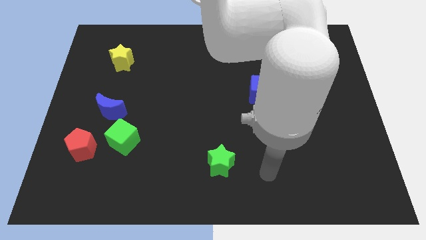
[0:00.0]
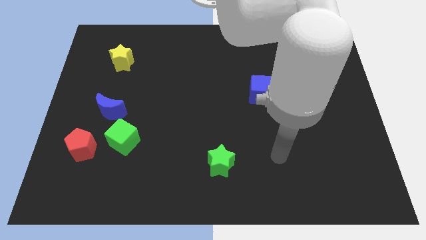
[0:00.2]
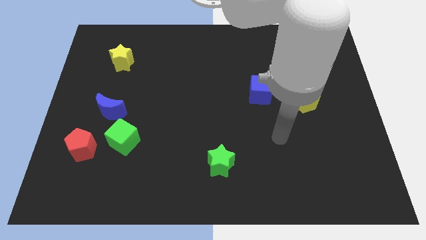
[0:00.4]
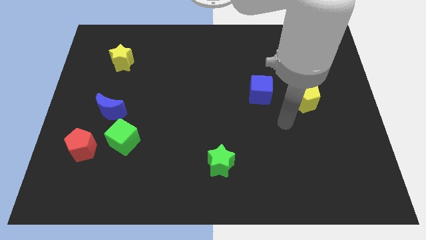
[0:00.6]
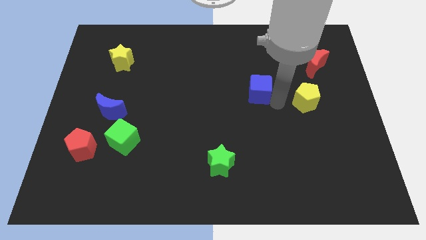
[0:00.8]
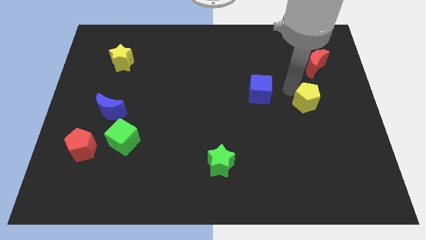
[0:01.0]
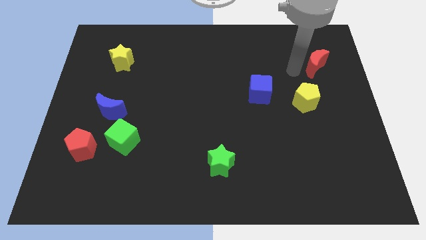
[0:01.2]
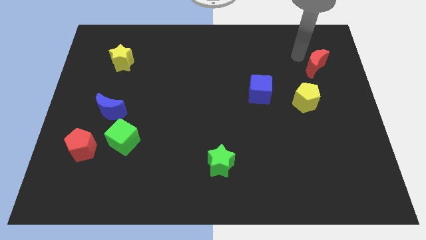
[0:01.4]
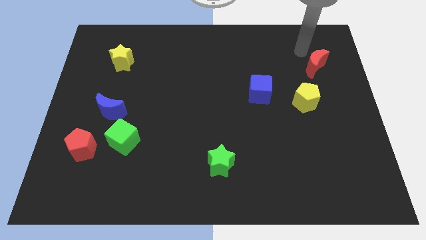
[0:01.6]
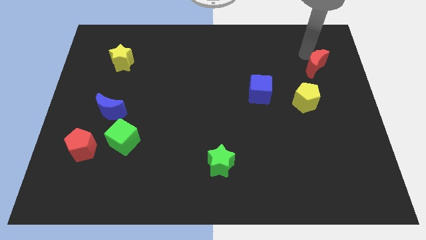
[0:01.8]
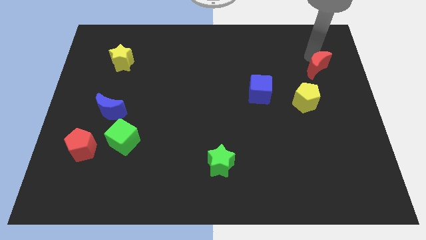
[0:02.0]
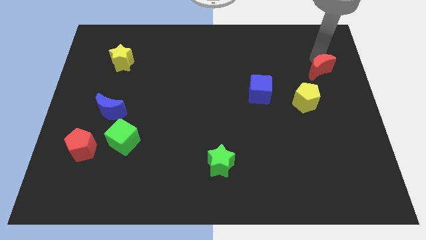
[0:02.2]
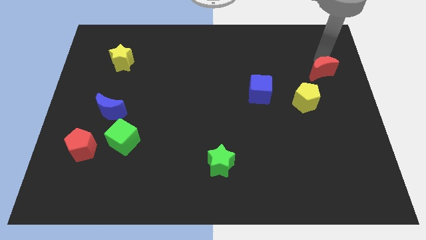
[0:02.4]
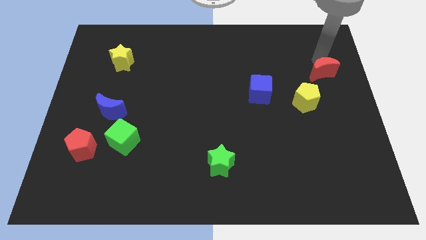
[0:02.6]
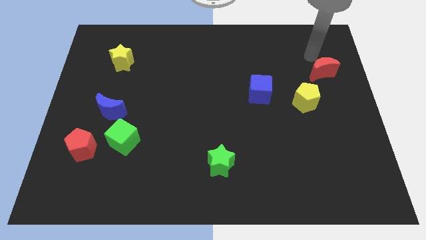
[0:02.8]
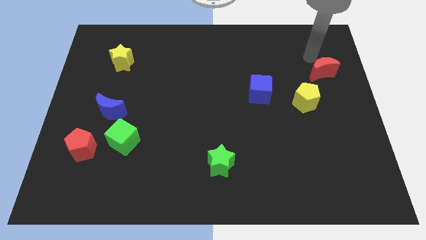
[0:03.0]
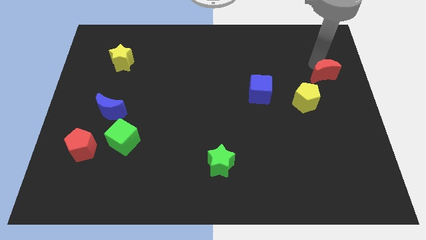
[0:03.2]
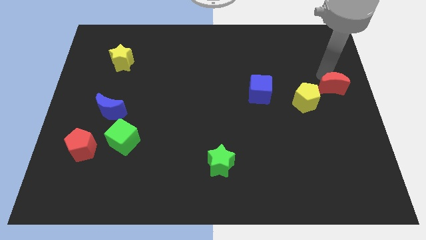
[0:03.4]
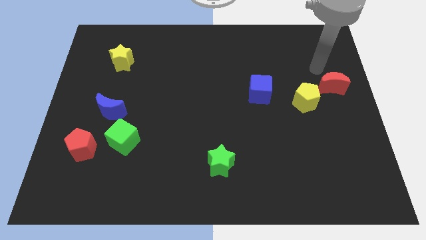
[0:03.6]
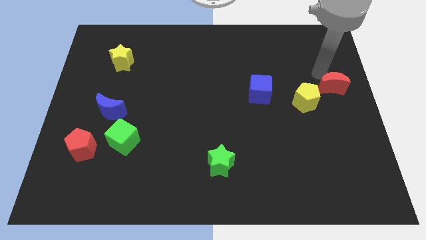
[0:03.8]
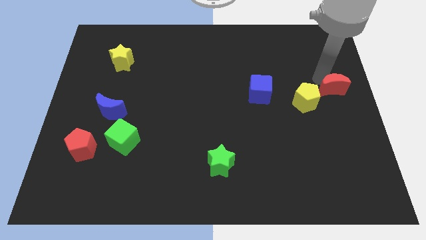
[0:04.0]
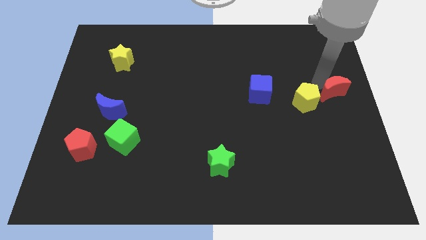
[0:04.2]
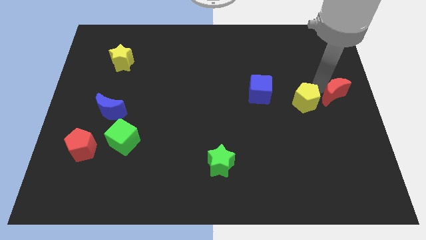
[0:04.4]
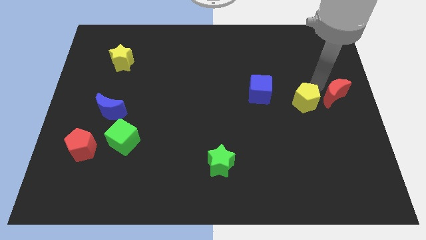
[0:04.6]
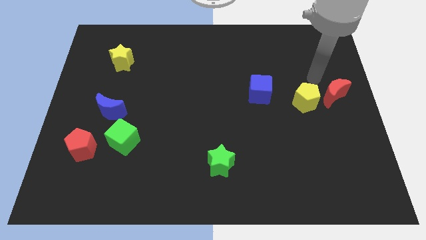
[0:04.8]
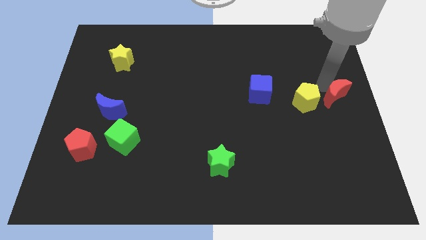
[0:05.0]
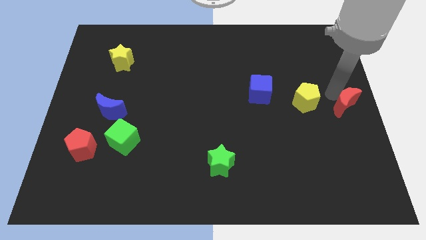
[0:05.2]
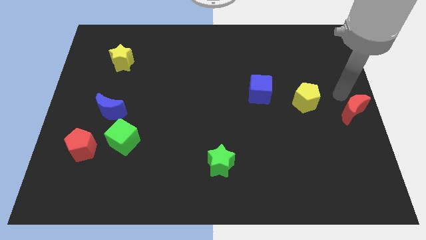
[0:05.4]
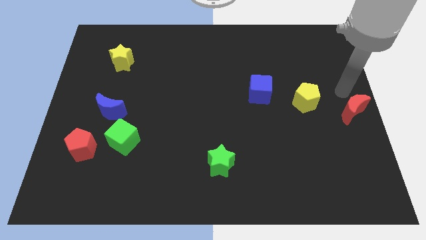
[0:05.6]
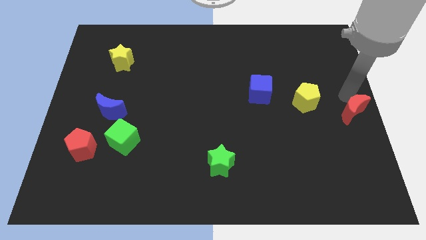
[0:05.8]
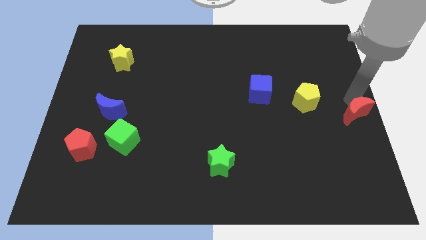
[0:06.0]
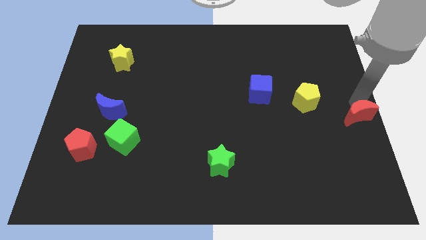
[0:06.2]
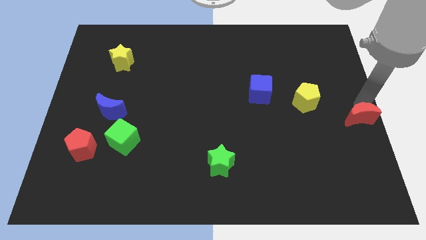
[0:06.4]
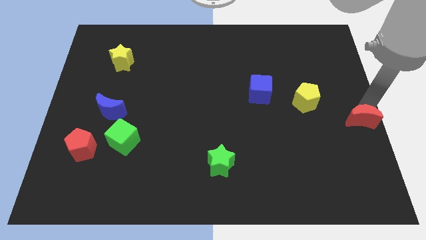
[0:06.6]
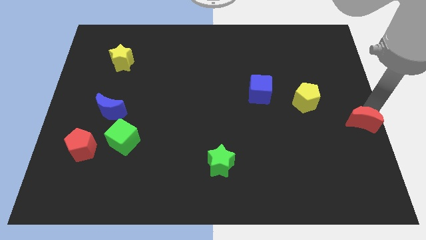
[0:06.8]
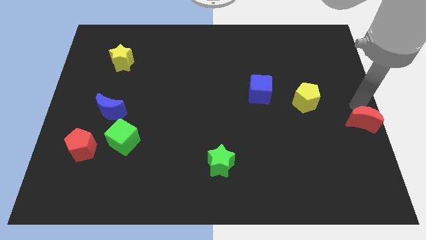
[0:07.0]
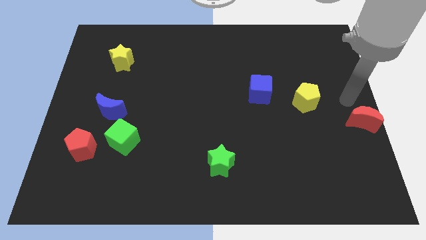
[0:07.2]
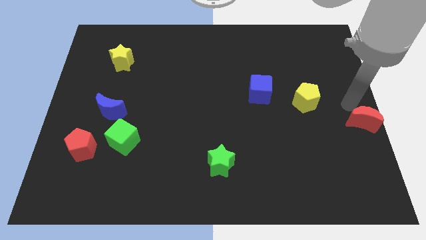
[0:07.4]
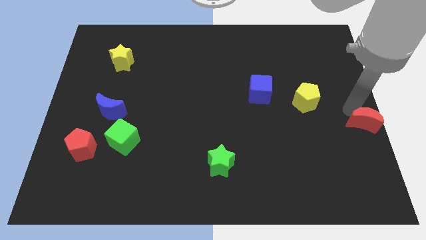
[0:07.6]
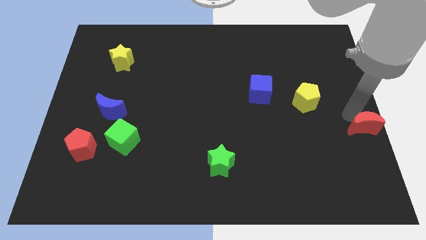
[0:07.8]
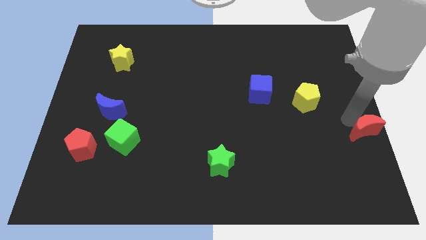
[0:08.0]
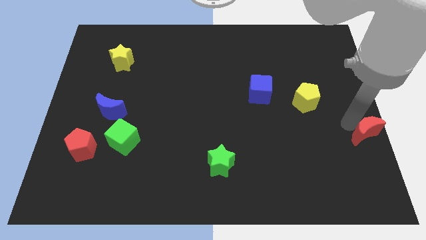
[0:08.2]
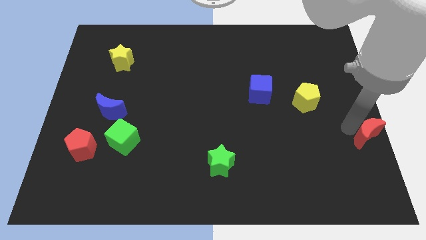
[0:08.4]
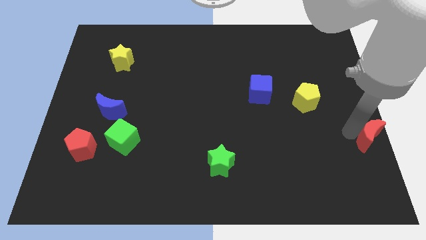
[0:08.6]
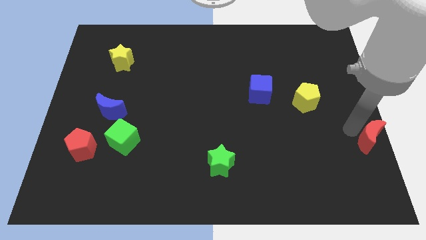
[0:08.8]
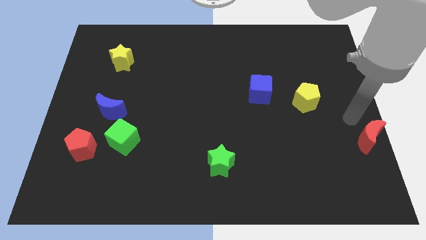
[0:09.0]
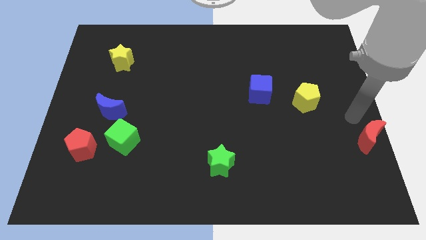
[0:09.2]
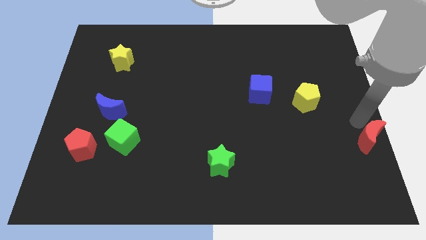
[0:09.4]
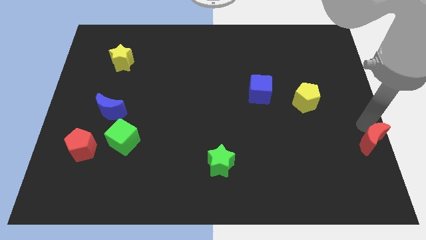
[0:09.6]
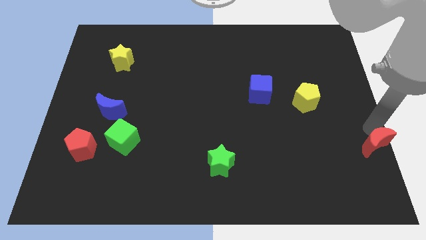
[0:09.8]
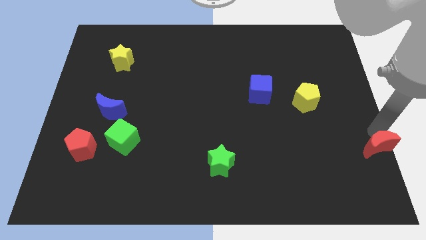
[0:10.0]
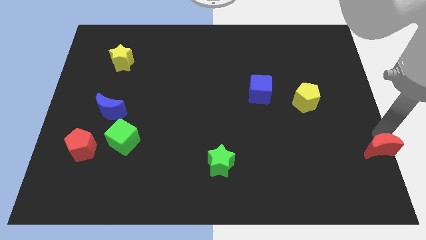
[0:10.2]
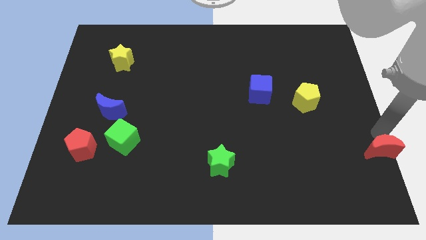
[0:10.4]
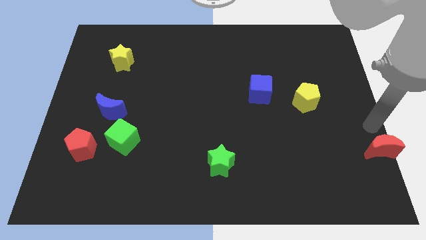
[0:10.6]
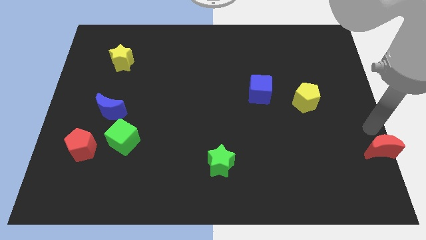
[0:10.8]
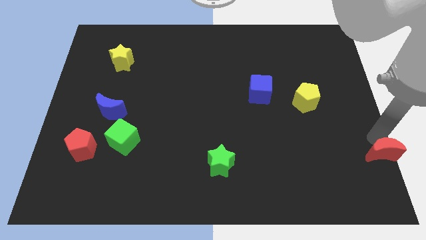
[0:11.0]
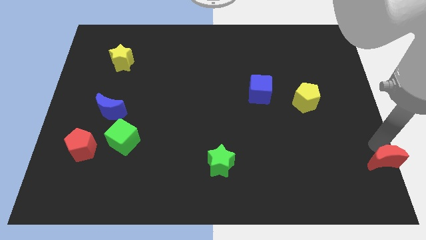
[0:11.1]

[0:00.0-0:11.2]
move the red moon to the lower right corner
